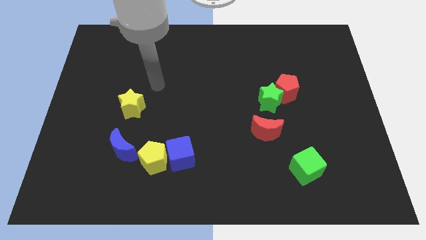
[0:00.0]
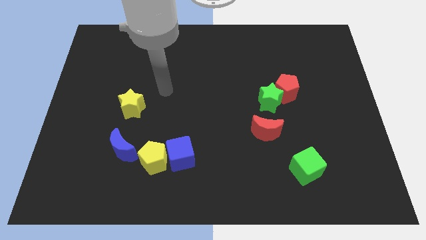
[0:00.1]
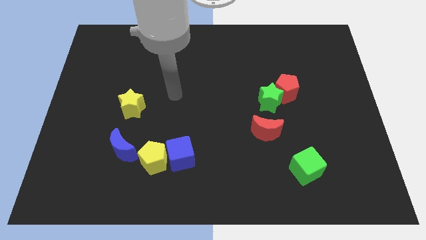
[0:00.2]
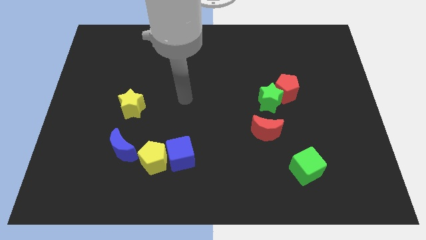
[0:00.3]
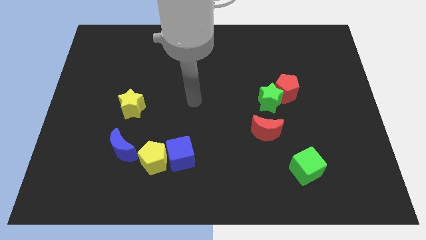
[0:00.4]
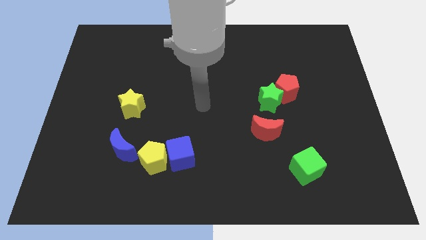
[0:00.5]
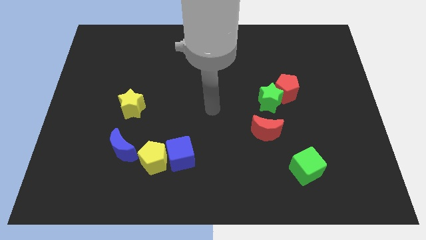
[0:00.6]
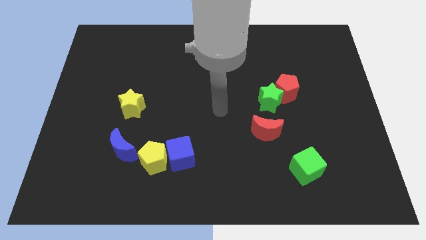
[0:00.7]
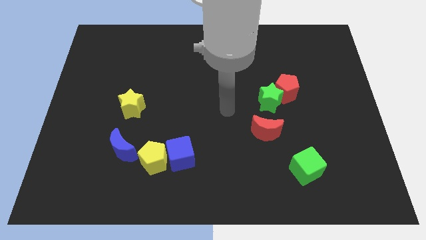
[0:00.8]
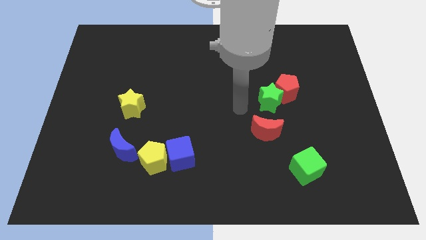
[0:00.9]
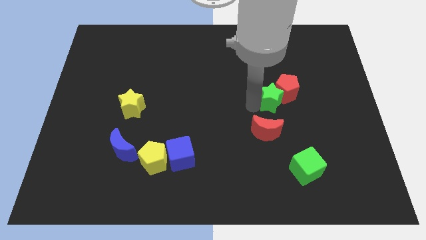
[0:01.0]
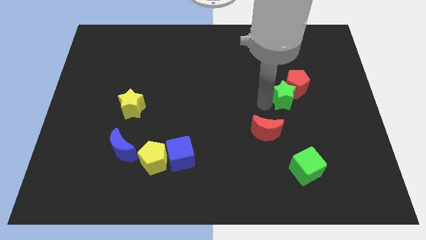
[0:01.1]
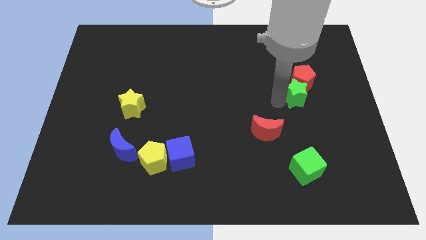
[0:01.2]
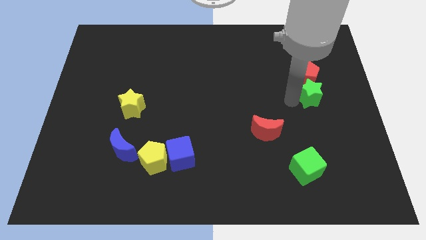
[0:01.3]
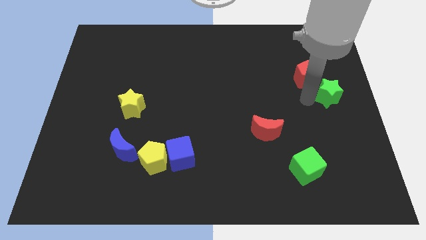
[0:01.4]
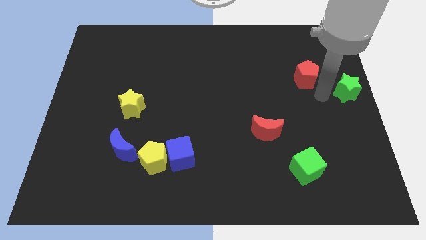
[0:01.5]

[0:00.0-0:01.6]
move the red pentagon away from the green star

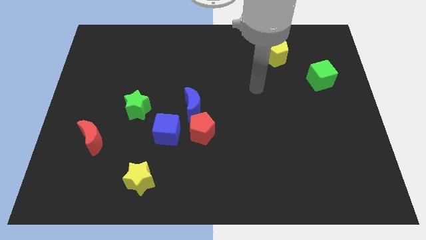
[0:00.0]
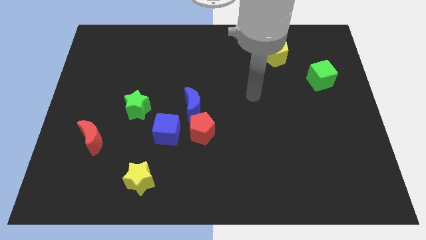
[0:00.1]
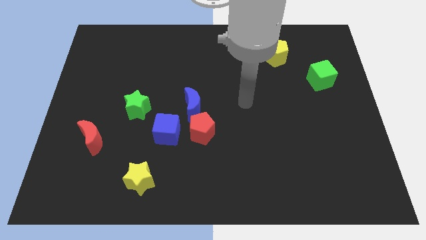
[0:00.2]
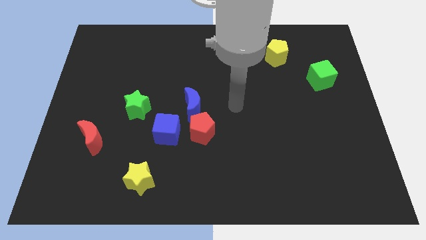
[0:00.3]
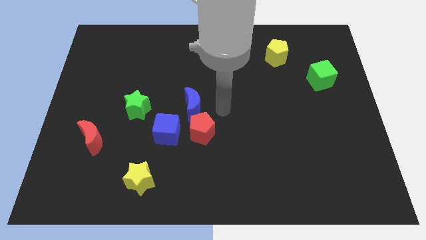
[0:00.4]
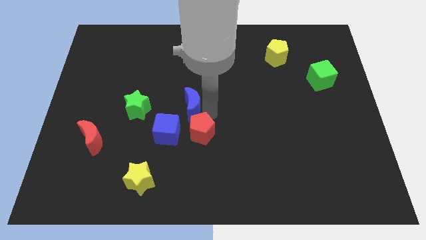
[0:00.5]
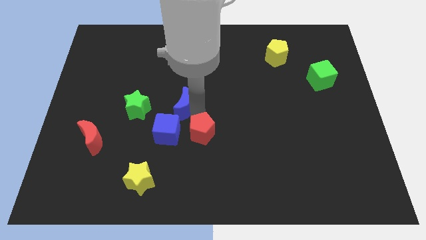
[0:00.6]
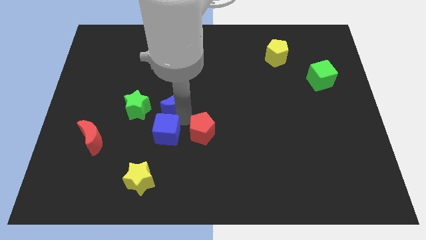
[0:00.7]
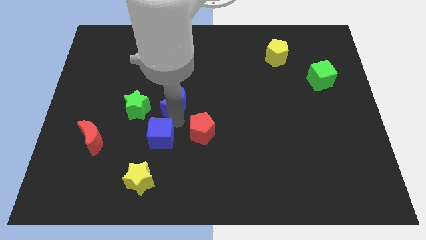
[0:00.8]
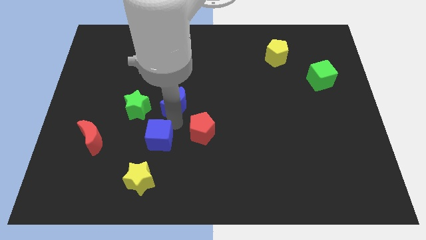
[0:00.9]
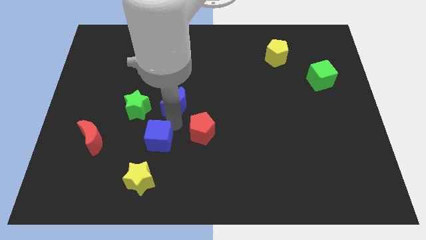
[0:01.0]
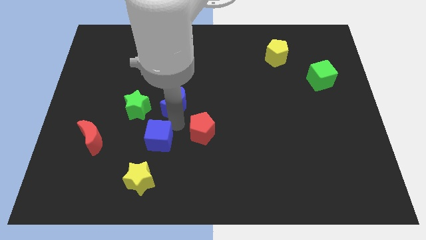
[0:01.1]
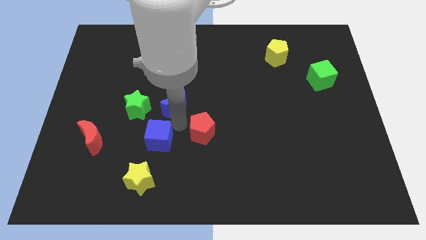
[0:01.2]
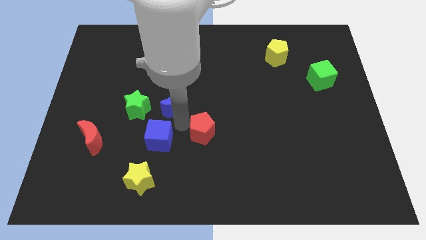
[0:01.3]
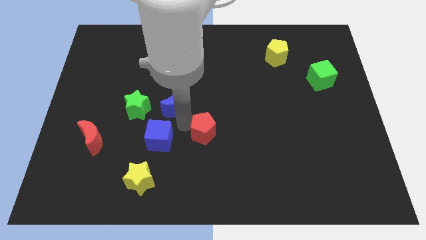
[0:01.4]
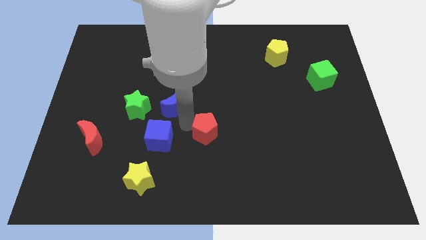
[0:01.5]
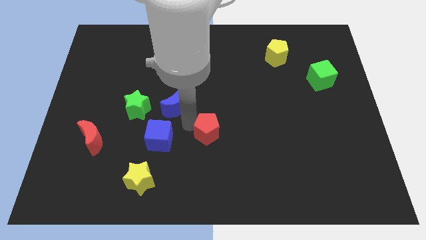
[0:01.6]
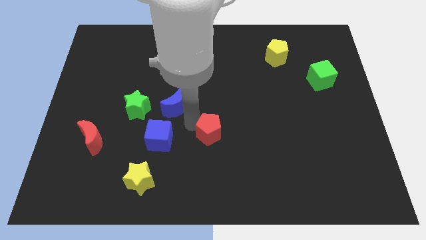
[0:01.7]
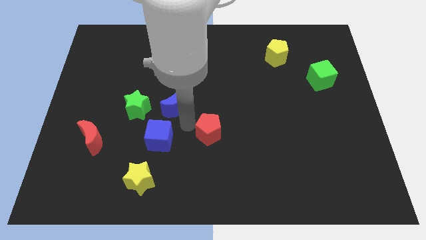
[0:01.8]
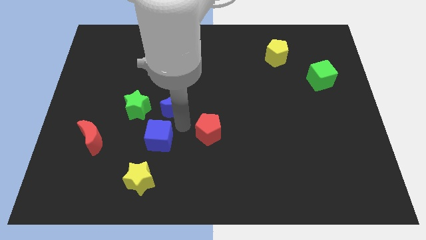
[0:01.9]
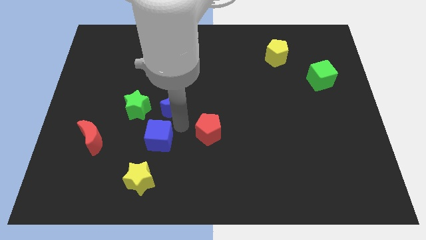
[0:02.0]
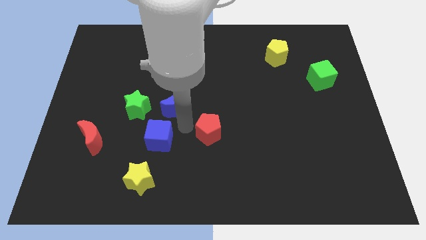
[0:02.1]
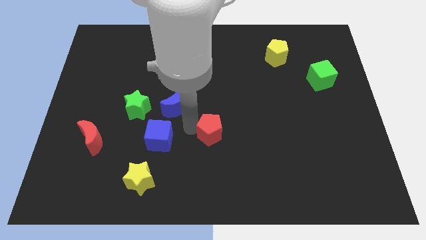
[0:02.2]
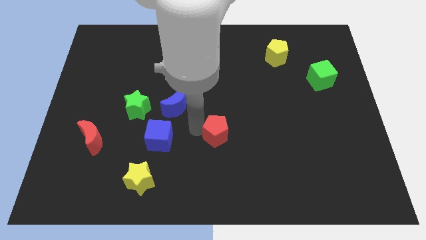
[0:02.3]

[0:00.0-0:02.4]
separate the red pentagon from the blue moon and blue cube

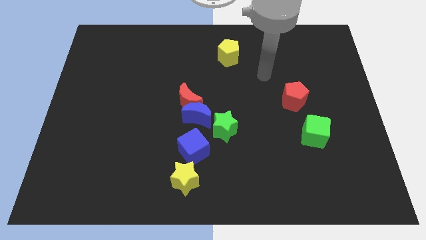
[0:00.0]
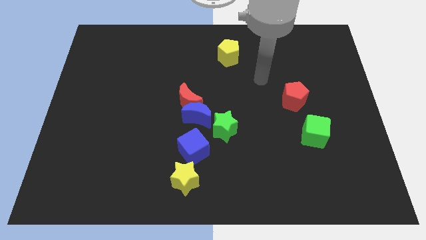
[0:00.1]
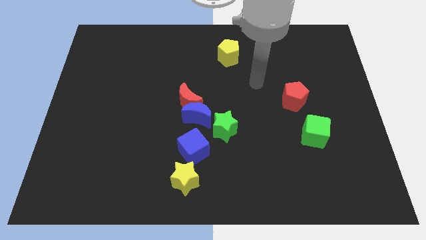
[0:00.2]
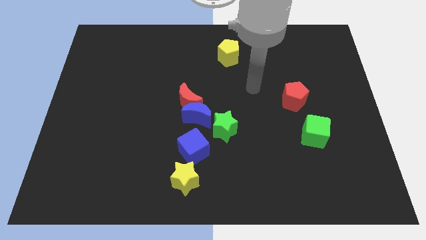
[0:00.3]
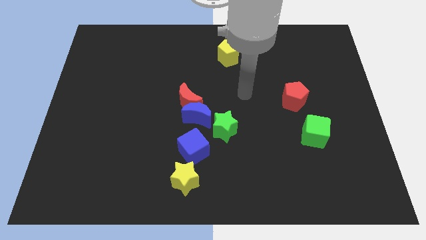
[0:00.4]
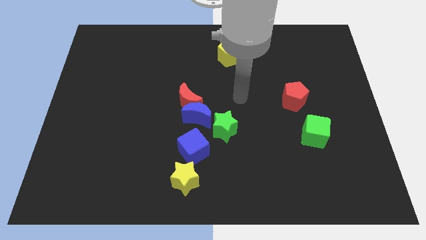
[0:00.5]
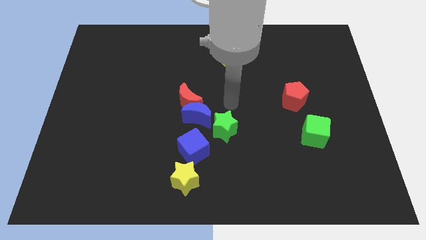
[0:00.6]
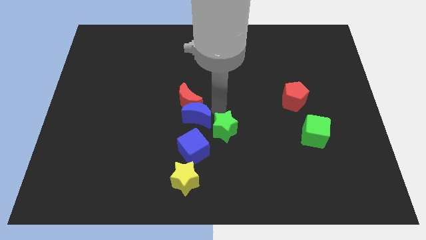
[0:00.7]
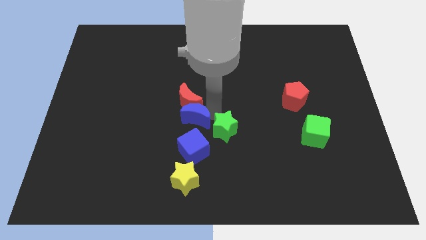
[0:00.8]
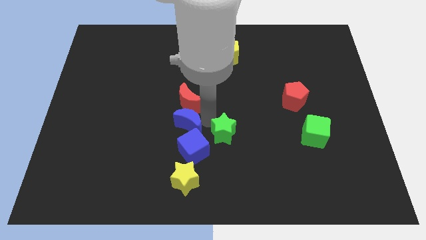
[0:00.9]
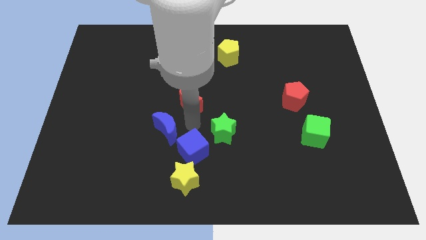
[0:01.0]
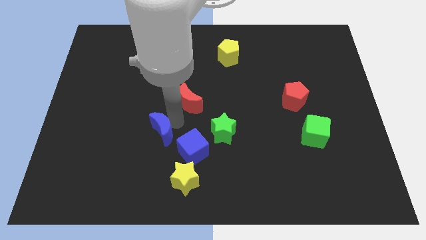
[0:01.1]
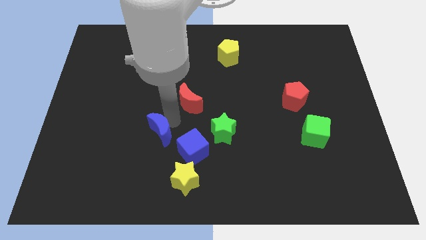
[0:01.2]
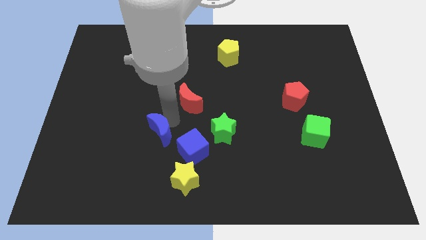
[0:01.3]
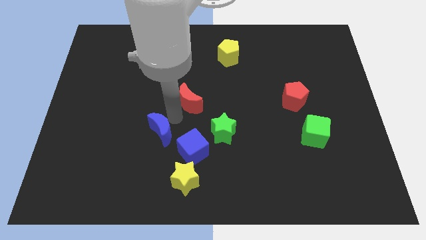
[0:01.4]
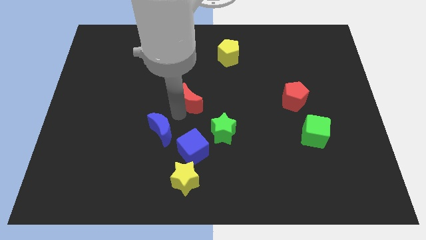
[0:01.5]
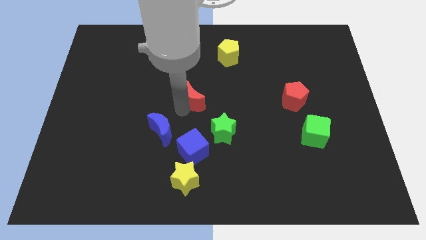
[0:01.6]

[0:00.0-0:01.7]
move the red moon away from the blue moon

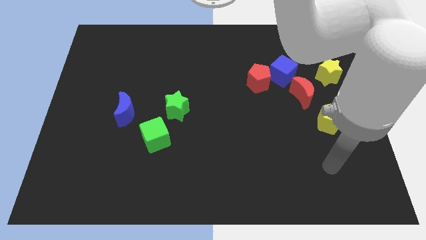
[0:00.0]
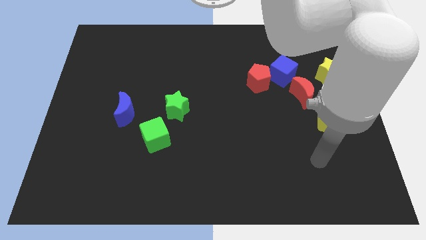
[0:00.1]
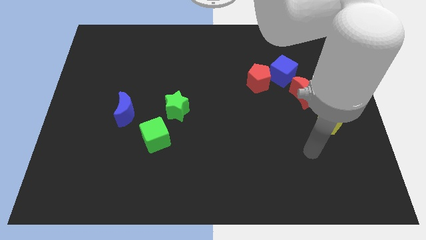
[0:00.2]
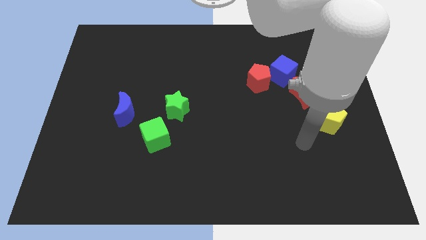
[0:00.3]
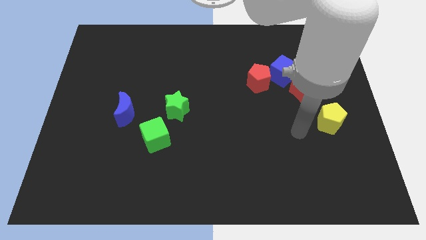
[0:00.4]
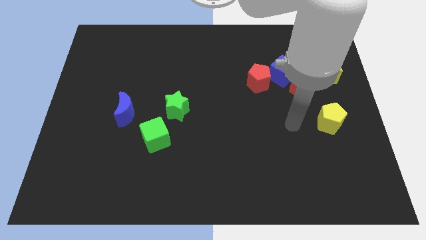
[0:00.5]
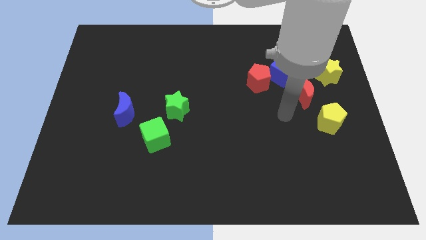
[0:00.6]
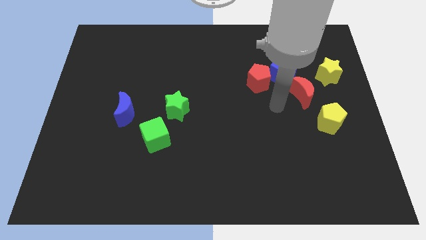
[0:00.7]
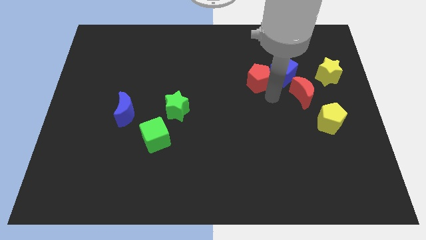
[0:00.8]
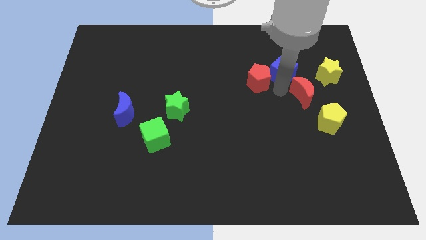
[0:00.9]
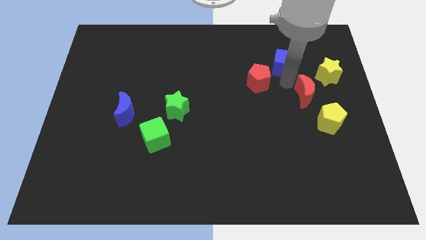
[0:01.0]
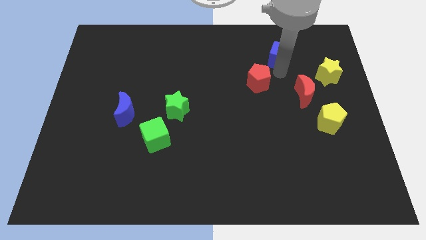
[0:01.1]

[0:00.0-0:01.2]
pull the red pentagon apart from the blue cube

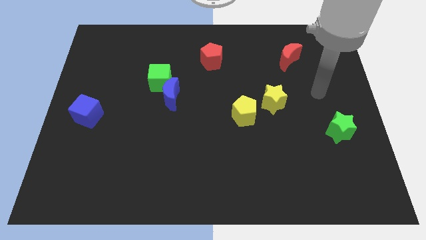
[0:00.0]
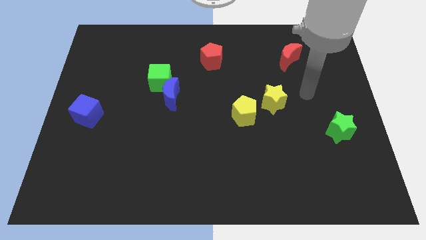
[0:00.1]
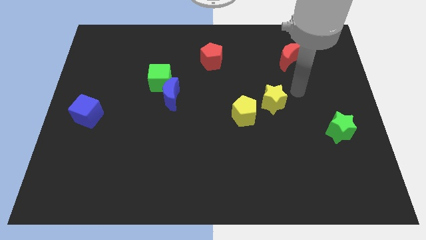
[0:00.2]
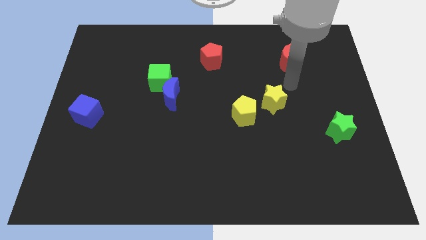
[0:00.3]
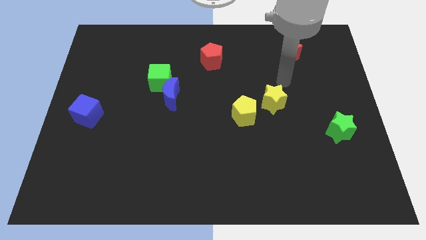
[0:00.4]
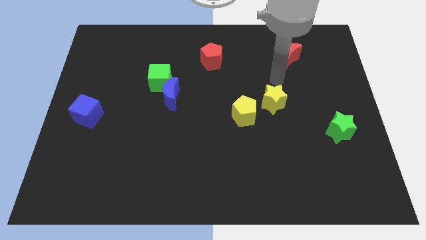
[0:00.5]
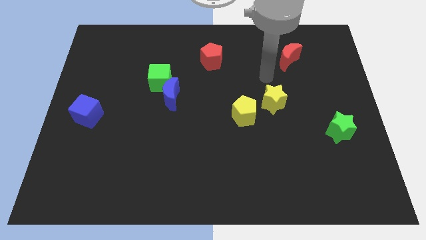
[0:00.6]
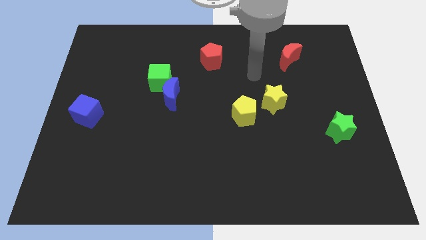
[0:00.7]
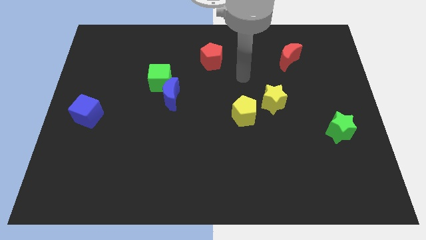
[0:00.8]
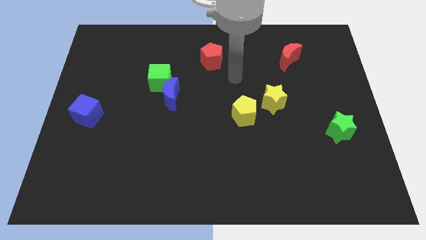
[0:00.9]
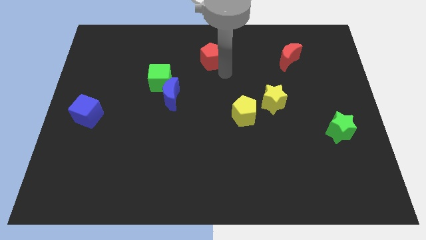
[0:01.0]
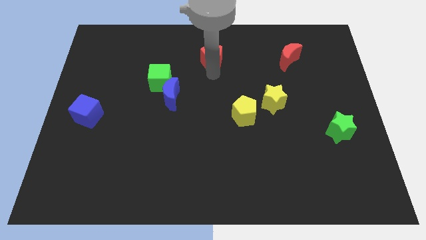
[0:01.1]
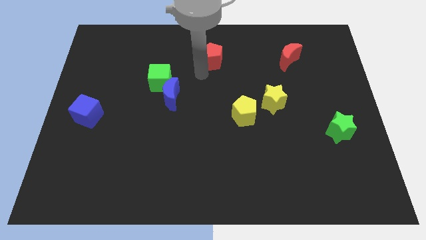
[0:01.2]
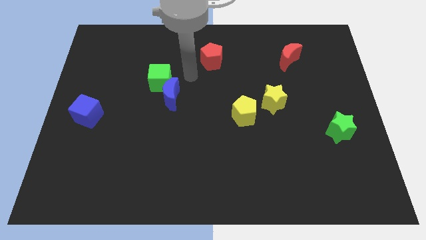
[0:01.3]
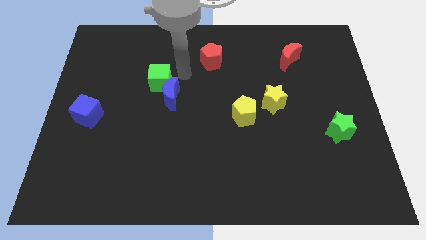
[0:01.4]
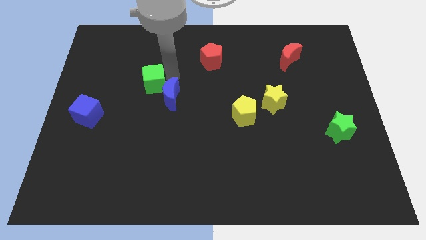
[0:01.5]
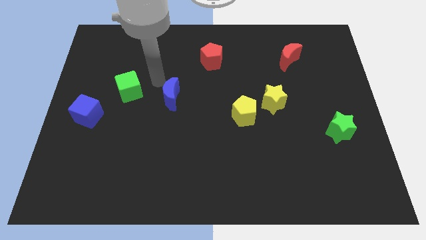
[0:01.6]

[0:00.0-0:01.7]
move the blue moon away from the green cube

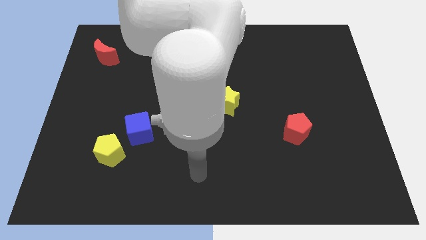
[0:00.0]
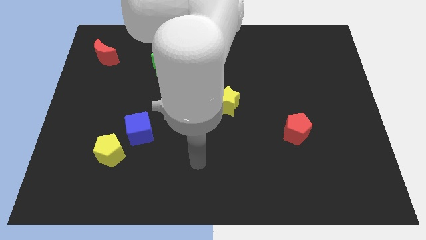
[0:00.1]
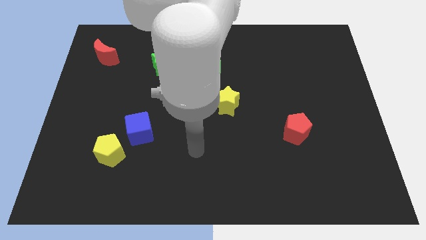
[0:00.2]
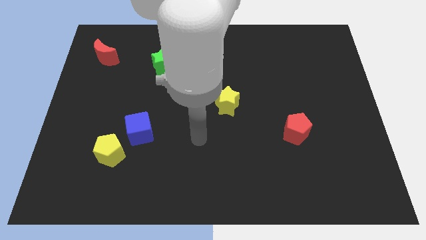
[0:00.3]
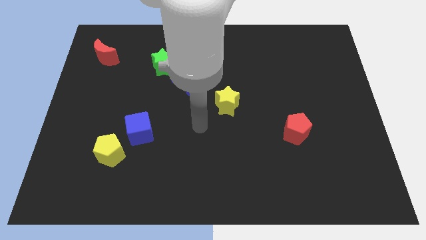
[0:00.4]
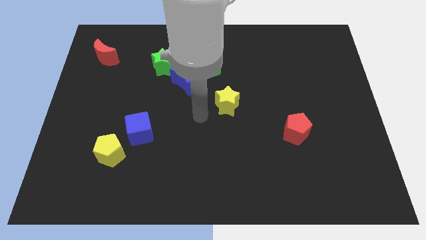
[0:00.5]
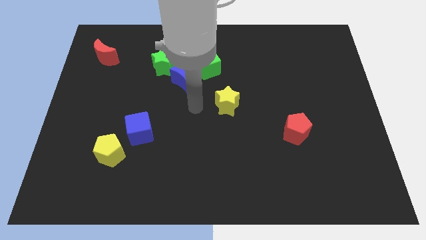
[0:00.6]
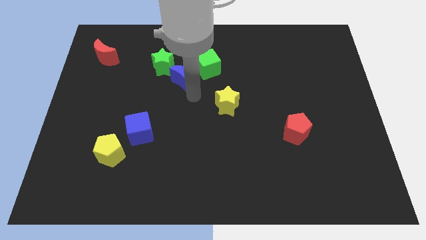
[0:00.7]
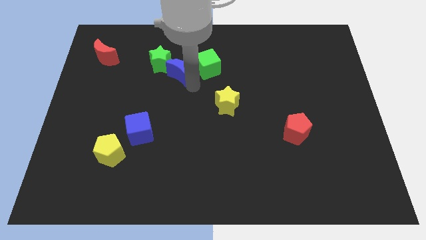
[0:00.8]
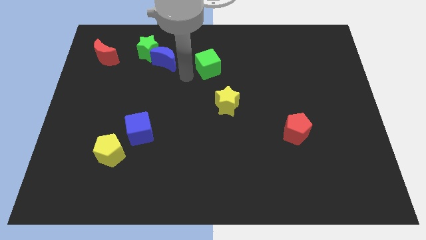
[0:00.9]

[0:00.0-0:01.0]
move the green cube away from the blue moon
